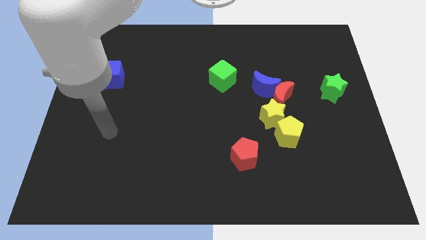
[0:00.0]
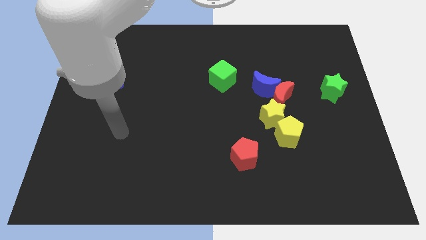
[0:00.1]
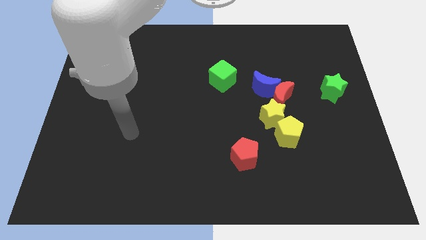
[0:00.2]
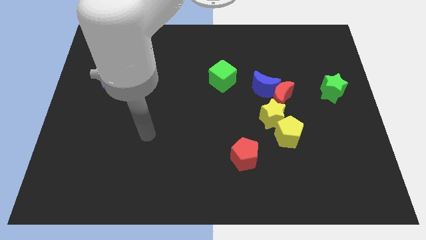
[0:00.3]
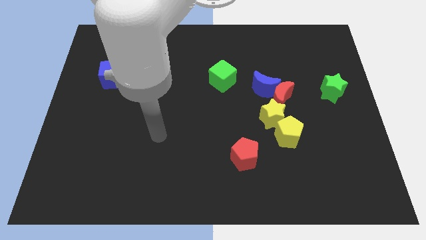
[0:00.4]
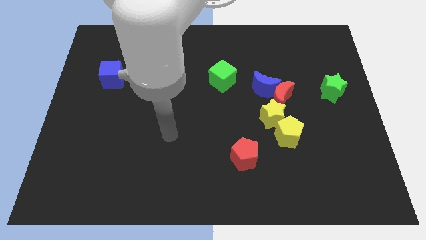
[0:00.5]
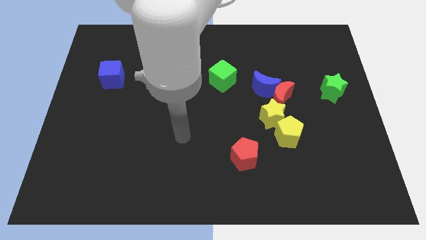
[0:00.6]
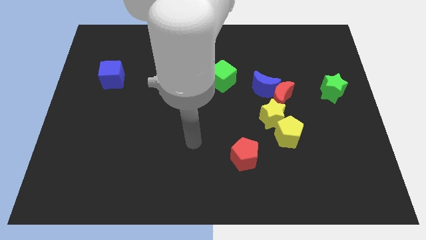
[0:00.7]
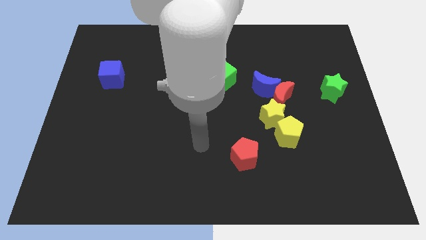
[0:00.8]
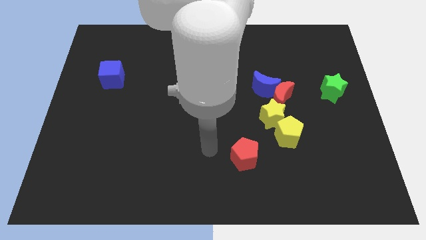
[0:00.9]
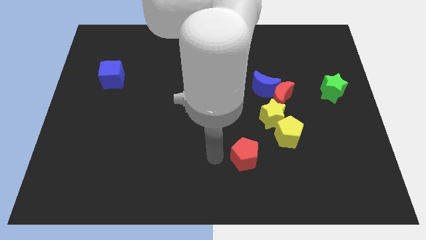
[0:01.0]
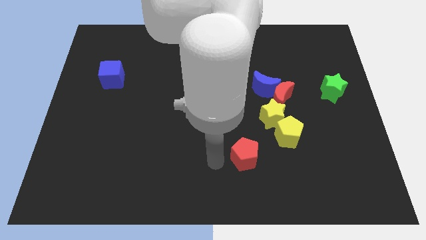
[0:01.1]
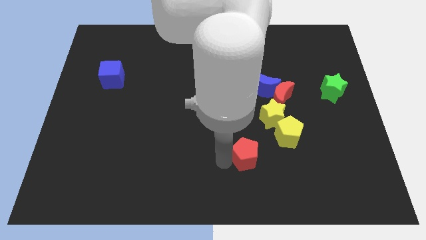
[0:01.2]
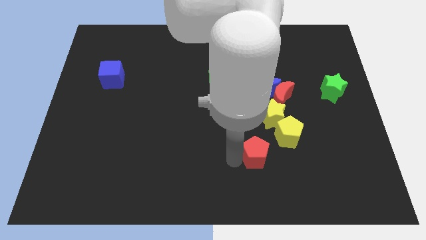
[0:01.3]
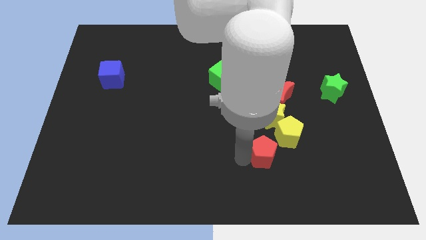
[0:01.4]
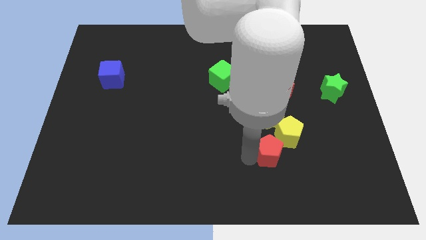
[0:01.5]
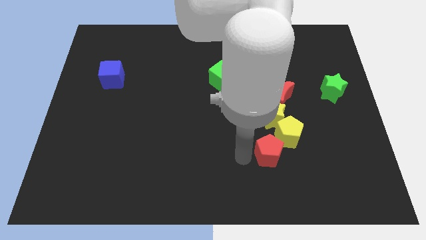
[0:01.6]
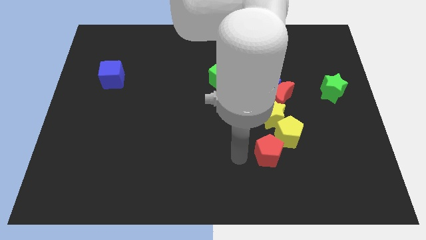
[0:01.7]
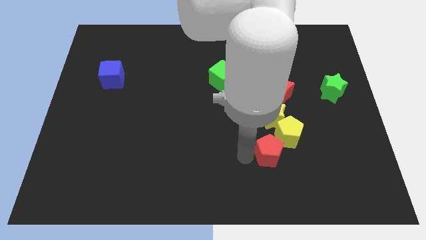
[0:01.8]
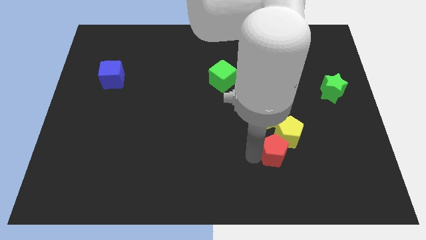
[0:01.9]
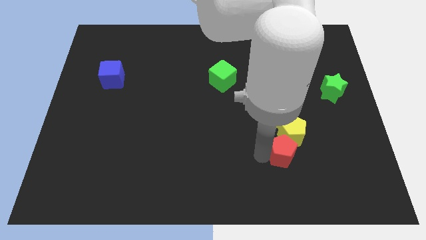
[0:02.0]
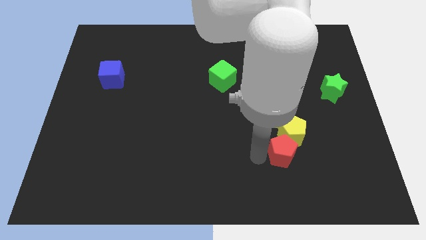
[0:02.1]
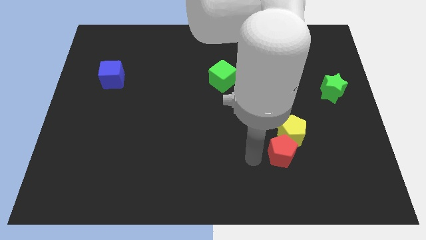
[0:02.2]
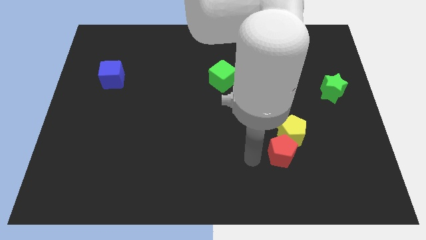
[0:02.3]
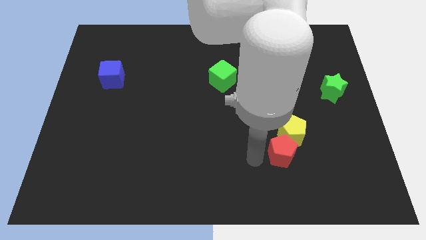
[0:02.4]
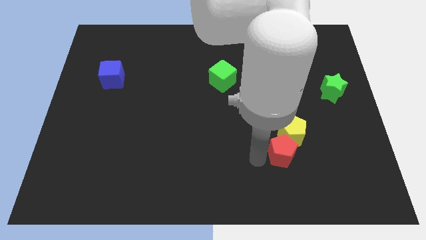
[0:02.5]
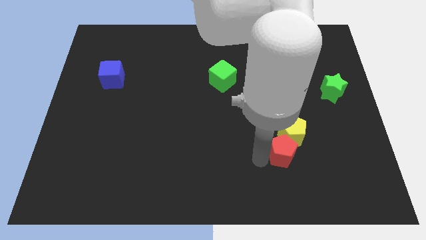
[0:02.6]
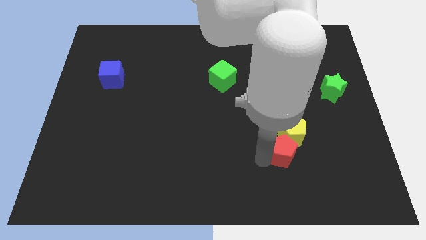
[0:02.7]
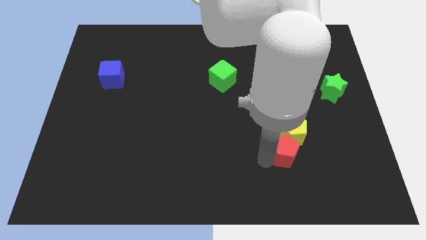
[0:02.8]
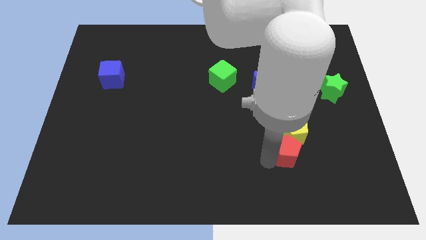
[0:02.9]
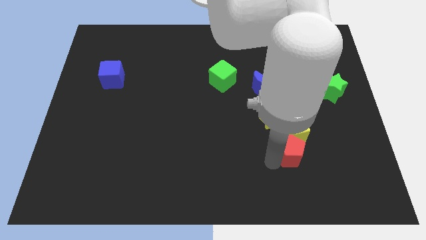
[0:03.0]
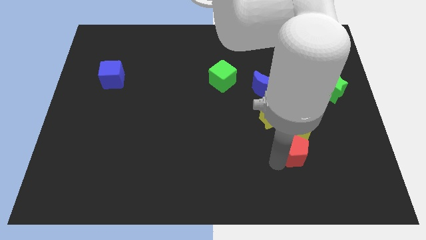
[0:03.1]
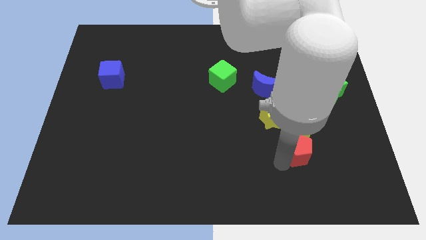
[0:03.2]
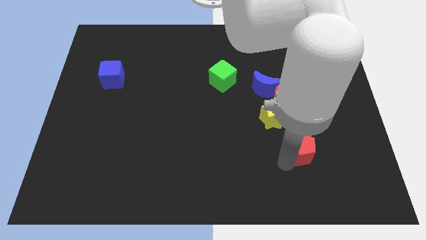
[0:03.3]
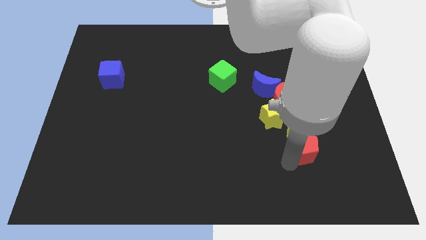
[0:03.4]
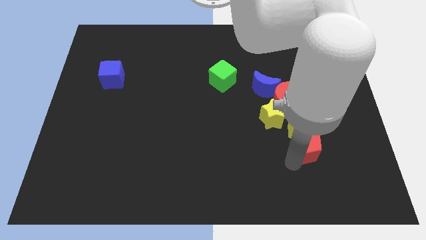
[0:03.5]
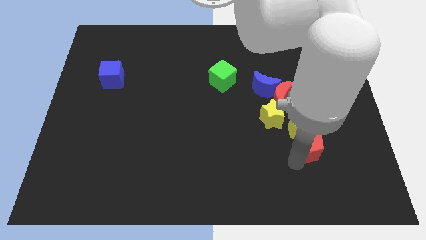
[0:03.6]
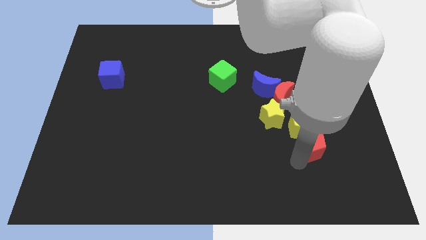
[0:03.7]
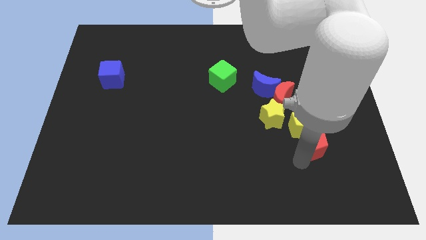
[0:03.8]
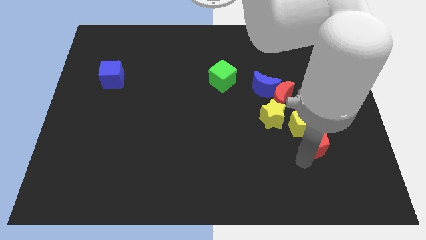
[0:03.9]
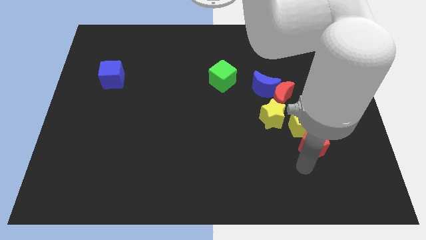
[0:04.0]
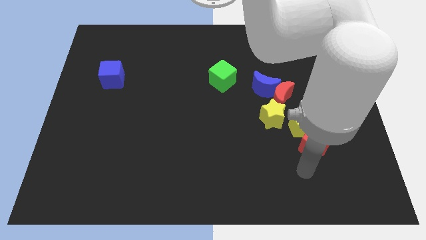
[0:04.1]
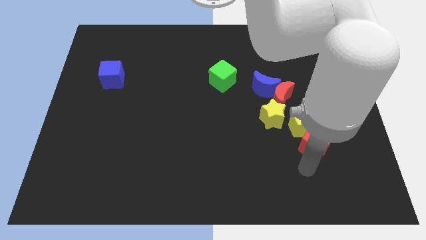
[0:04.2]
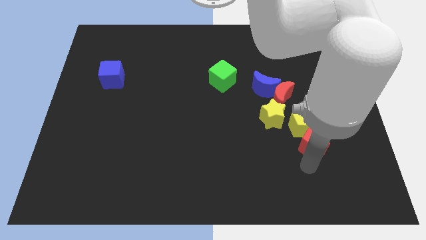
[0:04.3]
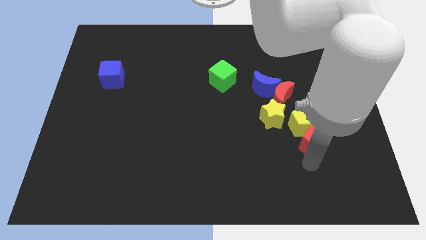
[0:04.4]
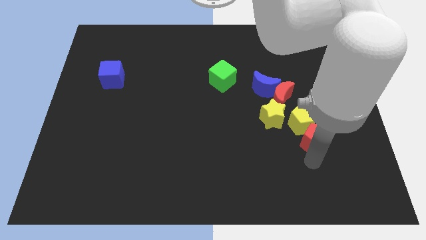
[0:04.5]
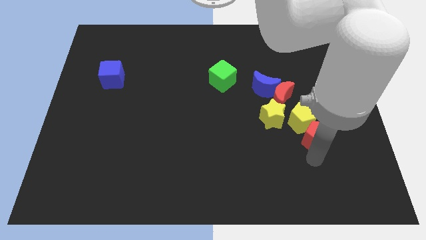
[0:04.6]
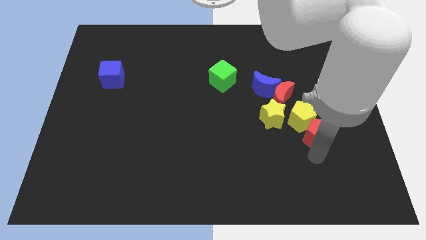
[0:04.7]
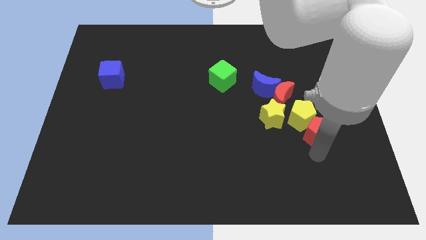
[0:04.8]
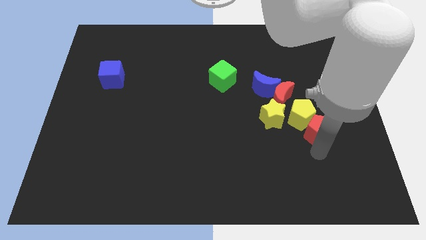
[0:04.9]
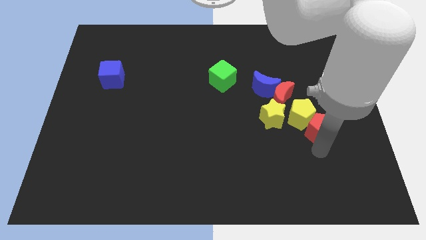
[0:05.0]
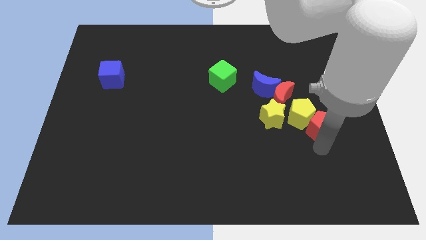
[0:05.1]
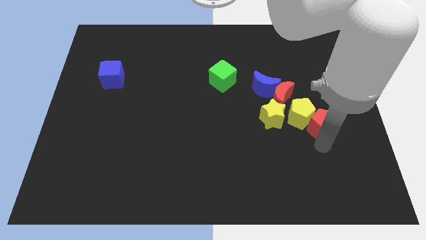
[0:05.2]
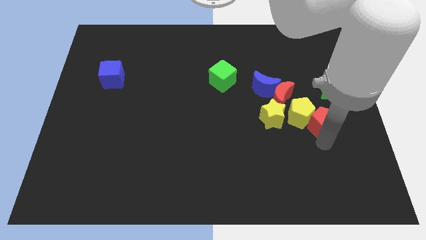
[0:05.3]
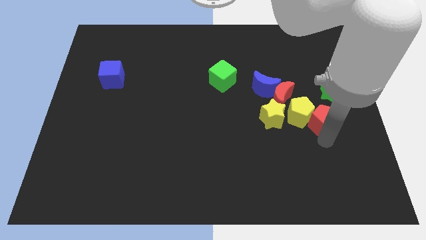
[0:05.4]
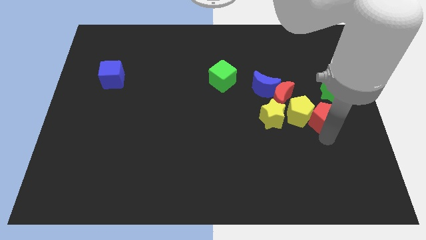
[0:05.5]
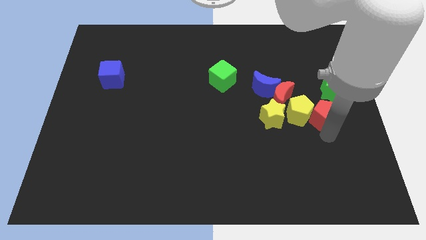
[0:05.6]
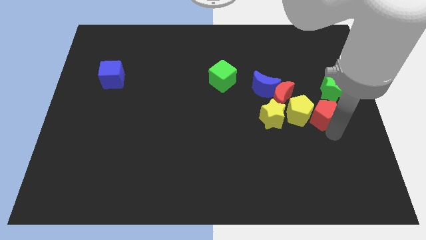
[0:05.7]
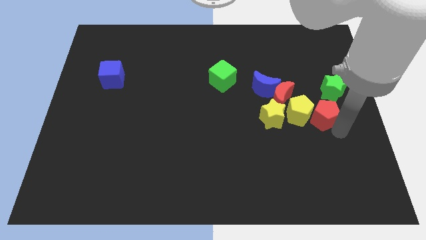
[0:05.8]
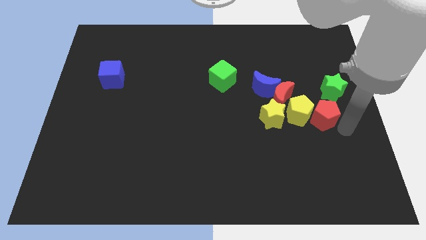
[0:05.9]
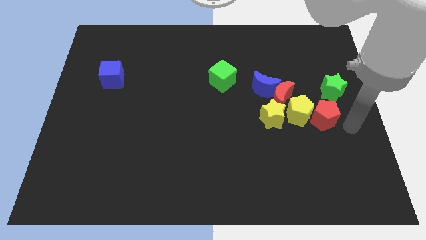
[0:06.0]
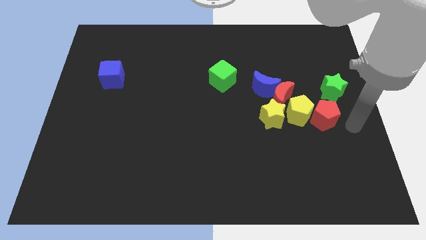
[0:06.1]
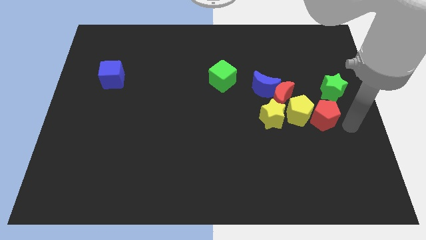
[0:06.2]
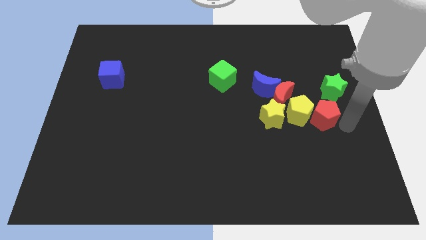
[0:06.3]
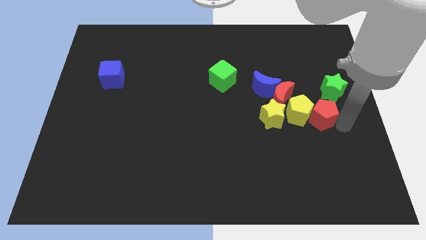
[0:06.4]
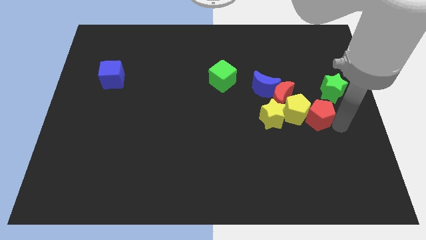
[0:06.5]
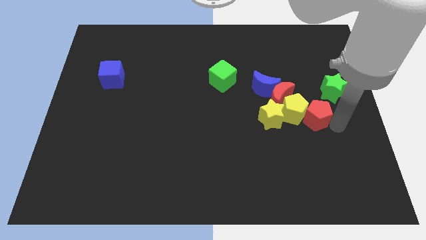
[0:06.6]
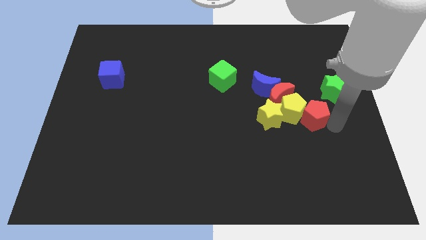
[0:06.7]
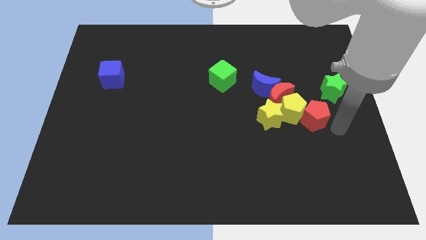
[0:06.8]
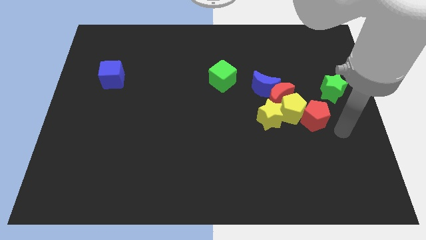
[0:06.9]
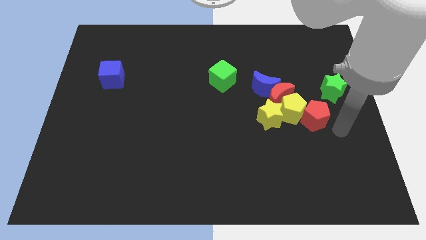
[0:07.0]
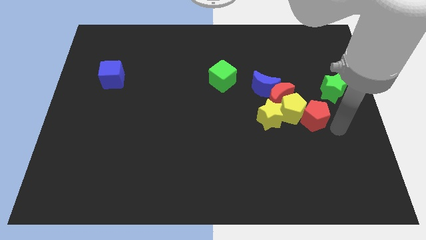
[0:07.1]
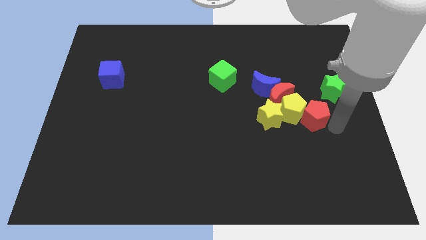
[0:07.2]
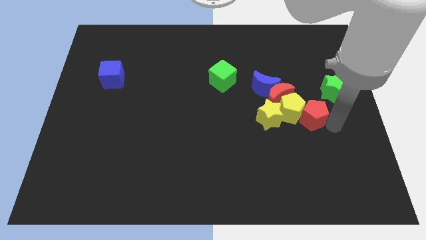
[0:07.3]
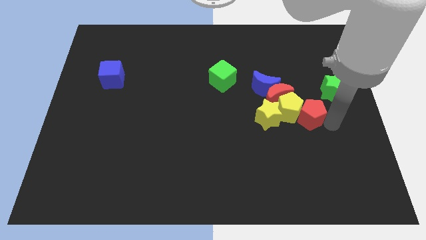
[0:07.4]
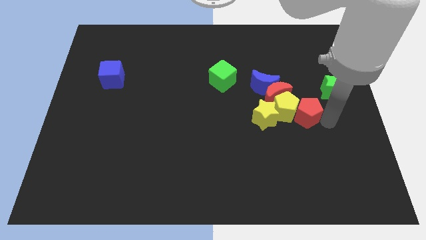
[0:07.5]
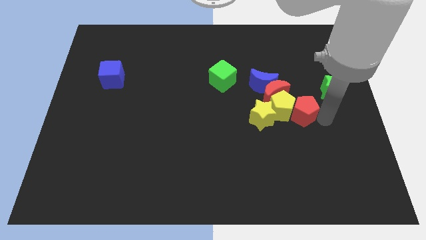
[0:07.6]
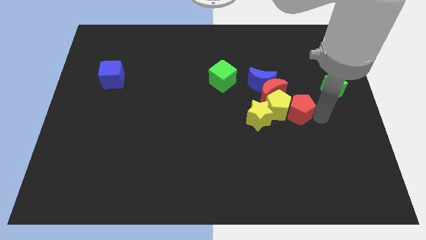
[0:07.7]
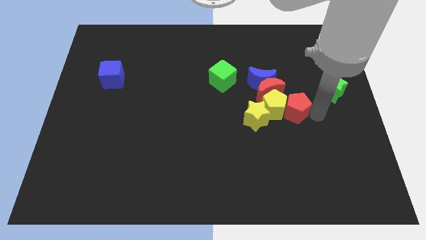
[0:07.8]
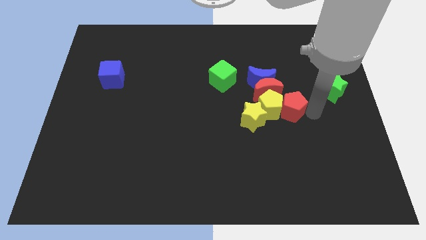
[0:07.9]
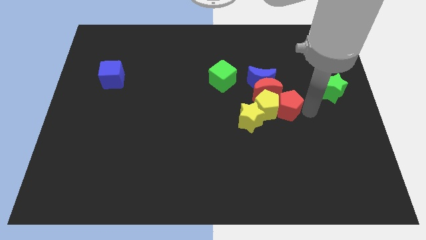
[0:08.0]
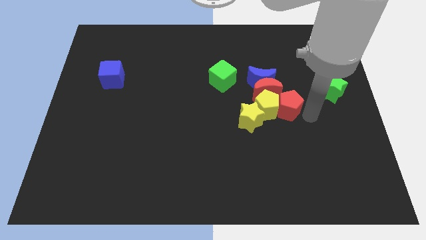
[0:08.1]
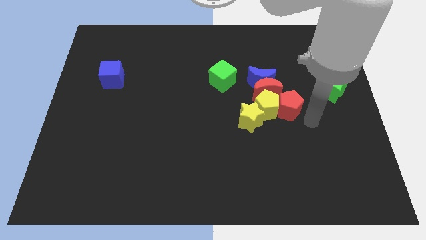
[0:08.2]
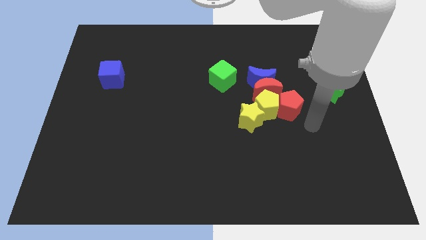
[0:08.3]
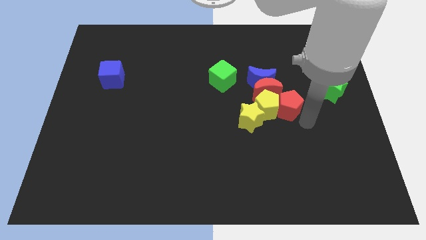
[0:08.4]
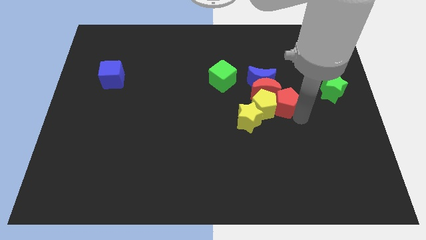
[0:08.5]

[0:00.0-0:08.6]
put the red pentagon towards the red moon
